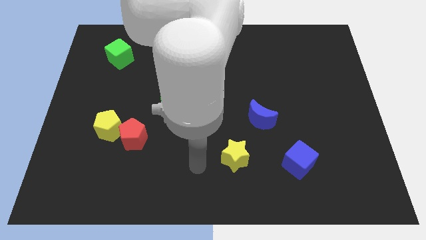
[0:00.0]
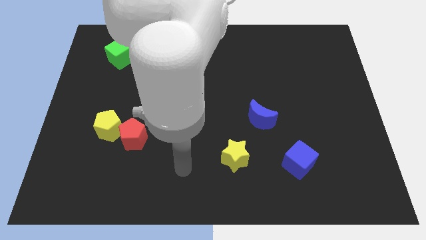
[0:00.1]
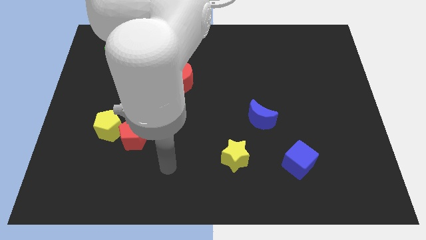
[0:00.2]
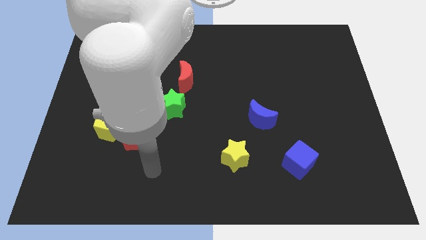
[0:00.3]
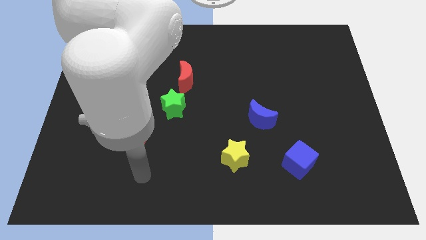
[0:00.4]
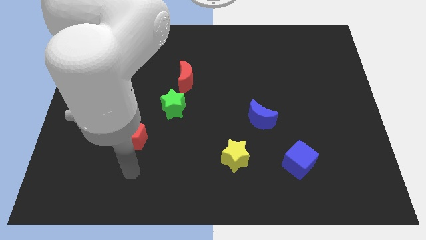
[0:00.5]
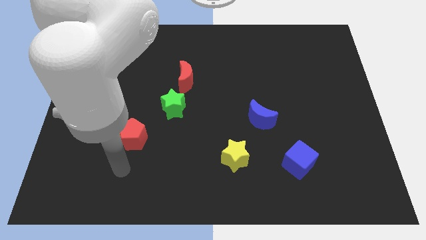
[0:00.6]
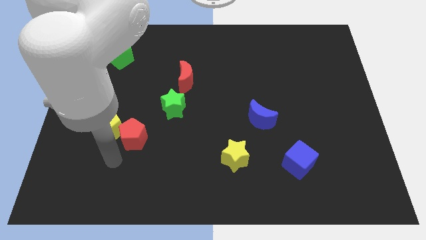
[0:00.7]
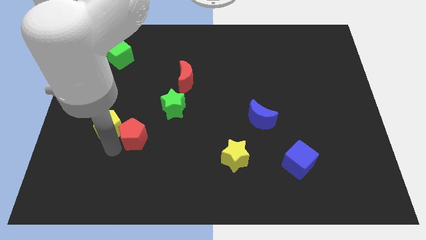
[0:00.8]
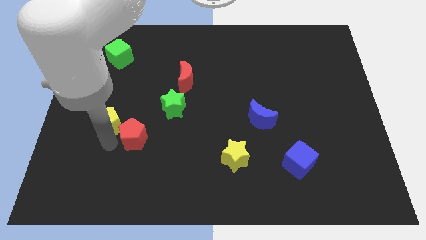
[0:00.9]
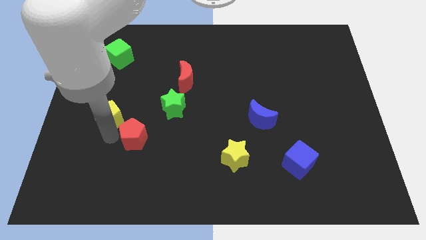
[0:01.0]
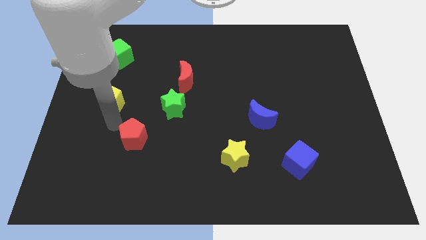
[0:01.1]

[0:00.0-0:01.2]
move the red pentagon away from the yellow pentagon

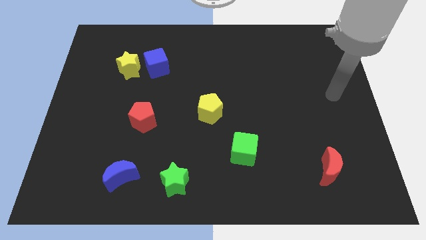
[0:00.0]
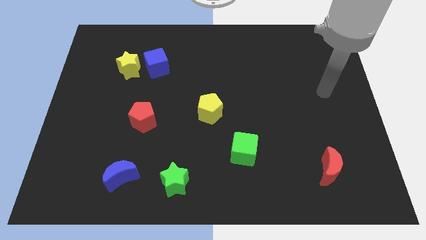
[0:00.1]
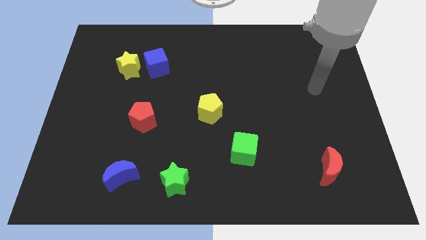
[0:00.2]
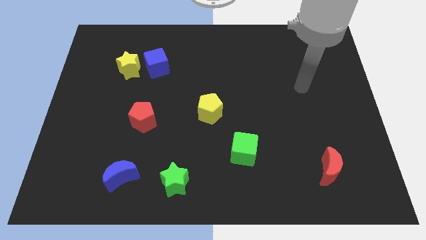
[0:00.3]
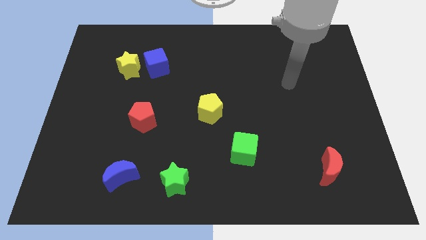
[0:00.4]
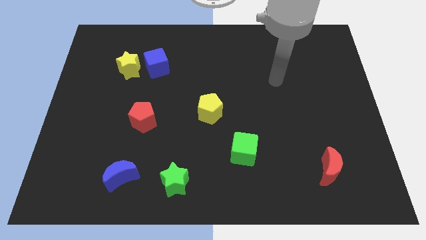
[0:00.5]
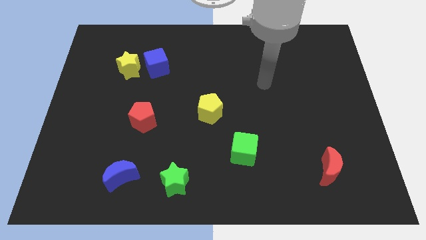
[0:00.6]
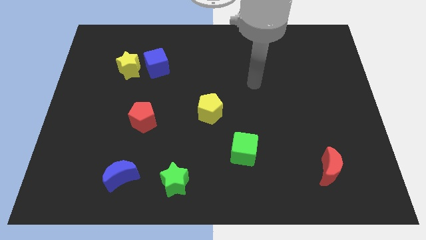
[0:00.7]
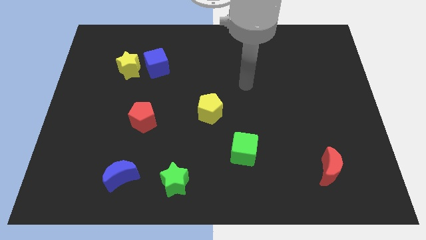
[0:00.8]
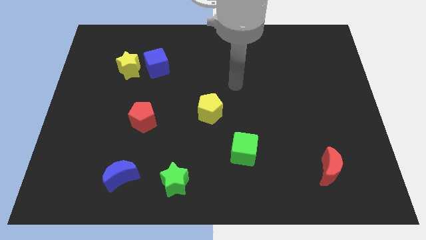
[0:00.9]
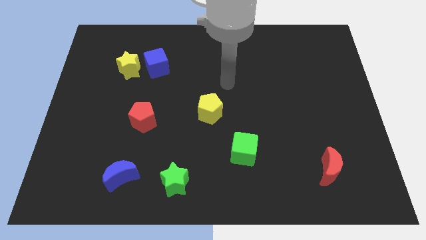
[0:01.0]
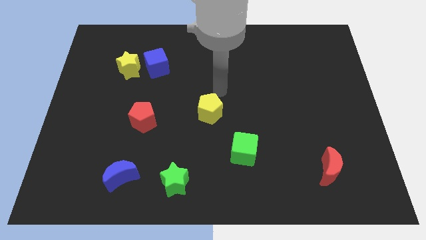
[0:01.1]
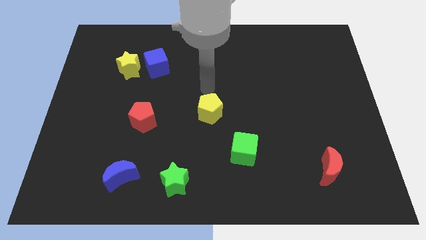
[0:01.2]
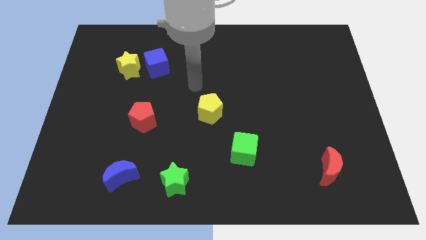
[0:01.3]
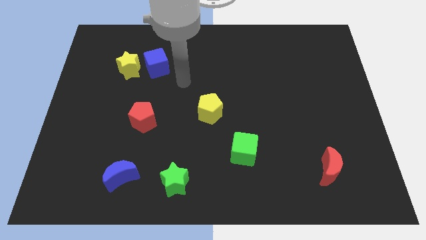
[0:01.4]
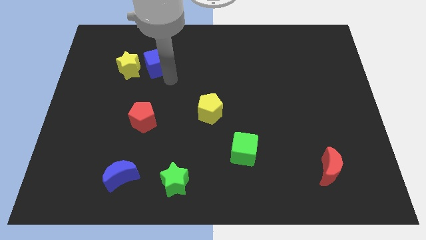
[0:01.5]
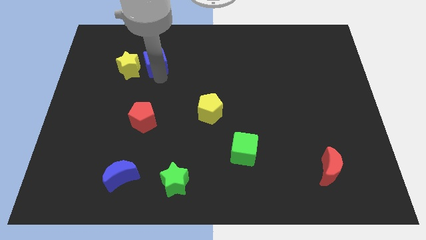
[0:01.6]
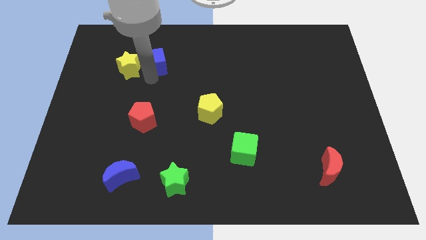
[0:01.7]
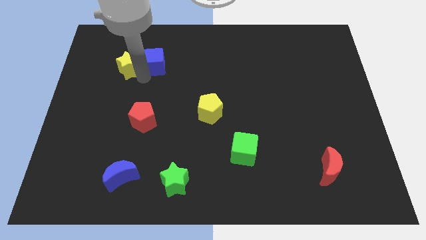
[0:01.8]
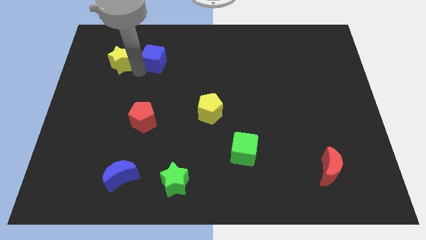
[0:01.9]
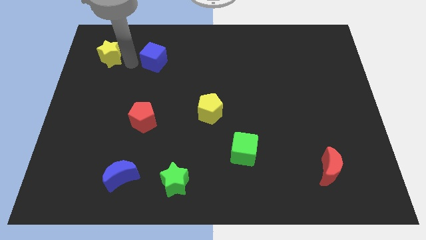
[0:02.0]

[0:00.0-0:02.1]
pull the blue cube apart from the yellow star

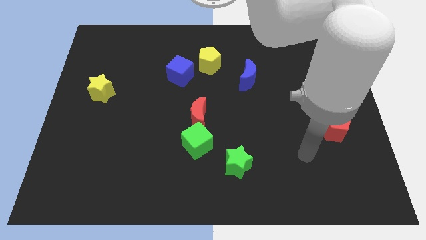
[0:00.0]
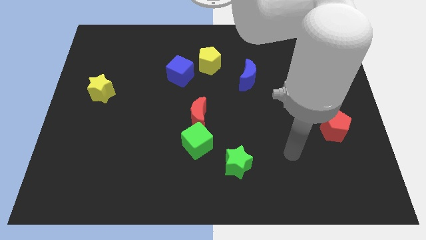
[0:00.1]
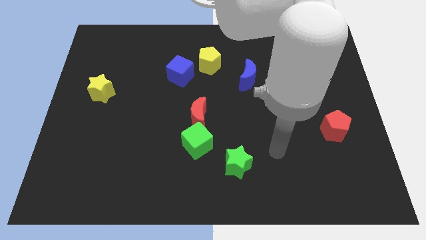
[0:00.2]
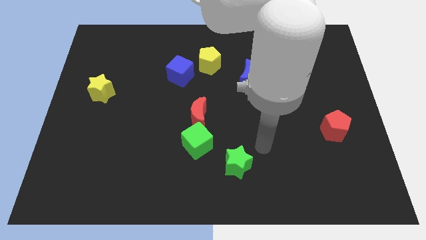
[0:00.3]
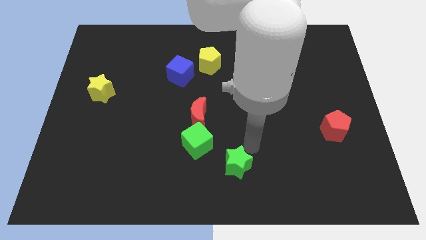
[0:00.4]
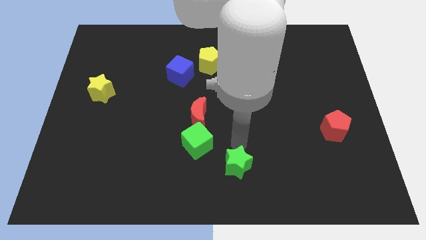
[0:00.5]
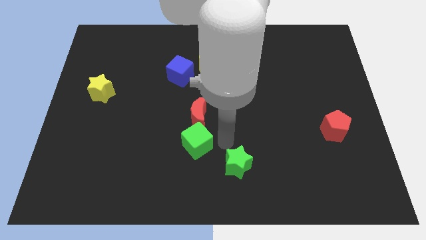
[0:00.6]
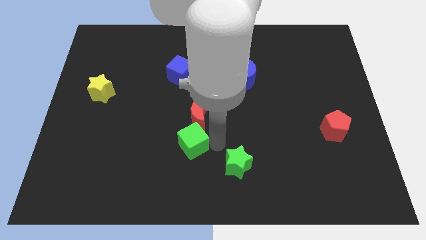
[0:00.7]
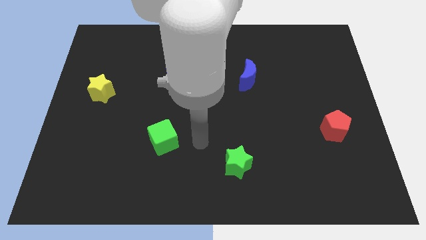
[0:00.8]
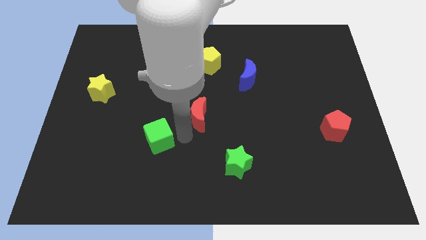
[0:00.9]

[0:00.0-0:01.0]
separate the red moon from the green cube

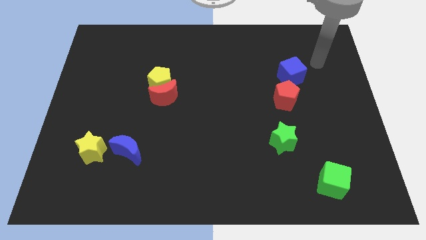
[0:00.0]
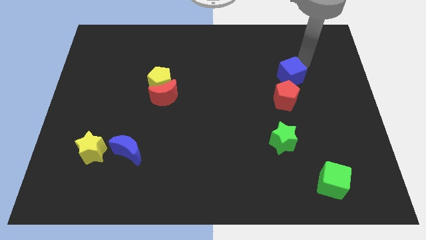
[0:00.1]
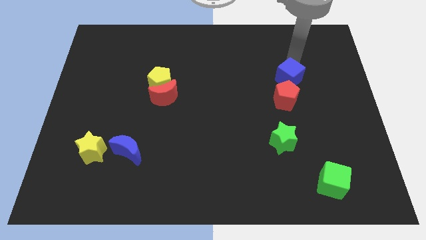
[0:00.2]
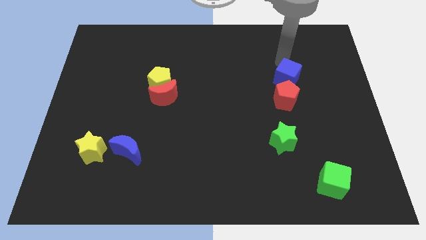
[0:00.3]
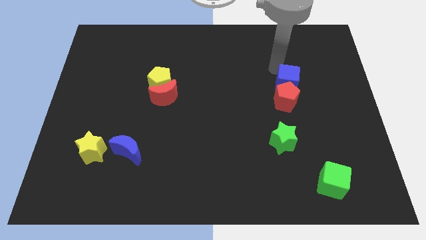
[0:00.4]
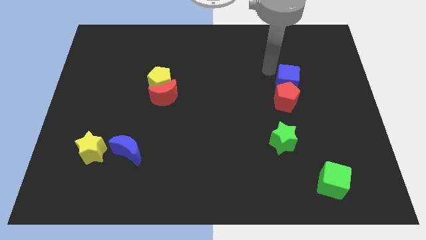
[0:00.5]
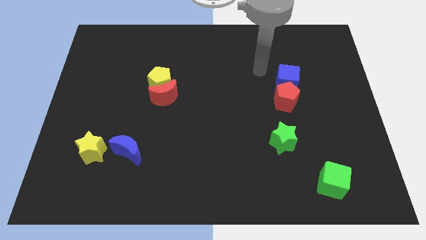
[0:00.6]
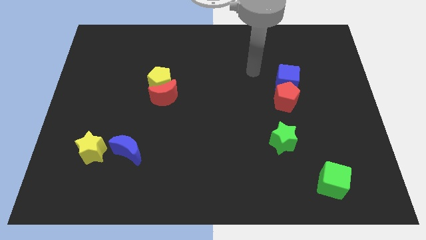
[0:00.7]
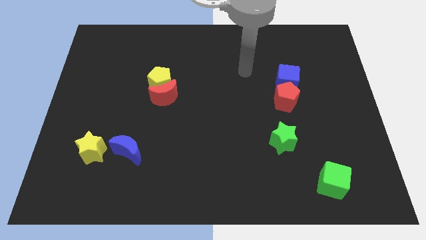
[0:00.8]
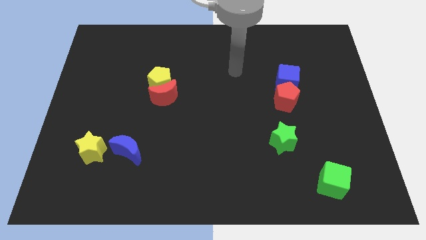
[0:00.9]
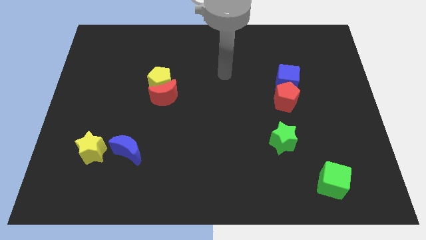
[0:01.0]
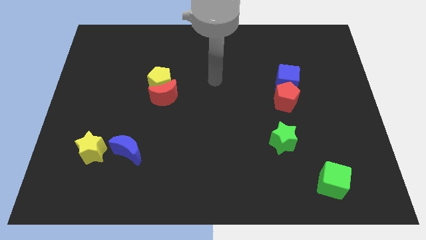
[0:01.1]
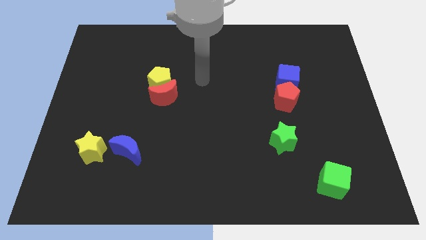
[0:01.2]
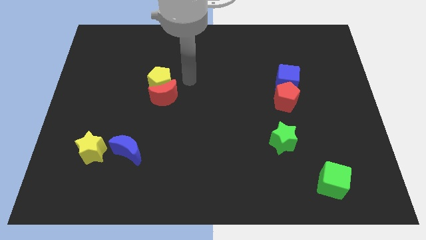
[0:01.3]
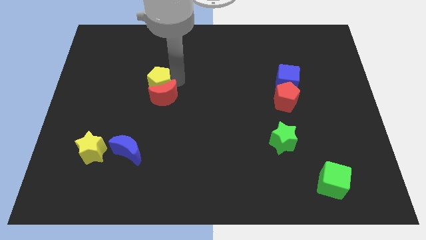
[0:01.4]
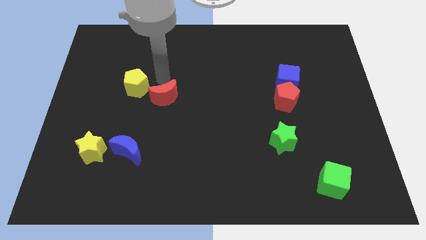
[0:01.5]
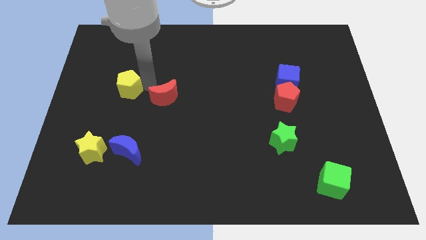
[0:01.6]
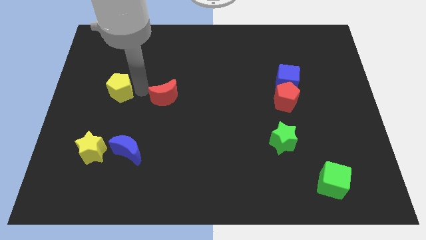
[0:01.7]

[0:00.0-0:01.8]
pull the red moon apart from the yellow pentagon

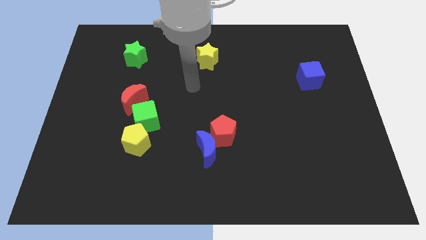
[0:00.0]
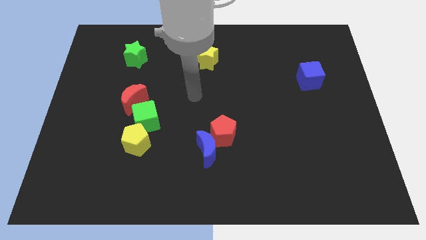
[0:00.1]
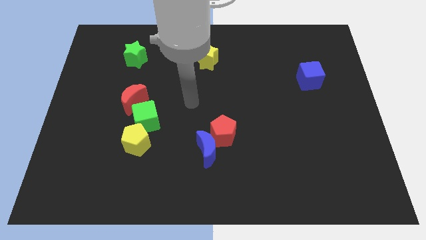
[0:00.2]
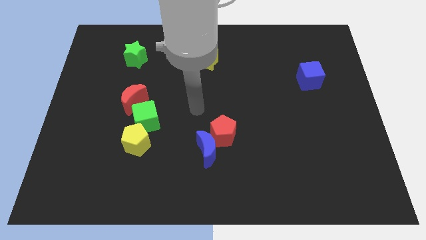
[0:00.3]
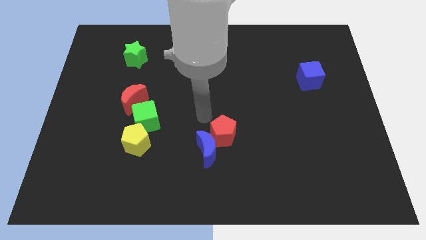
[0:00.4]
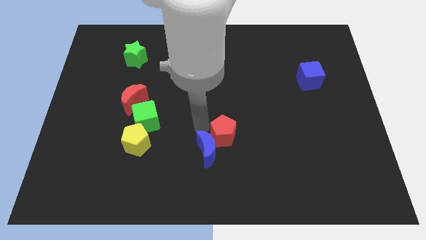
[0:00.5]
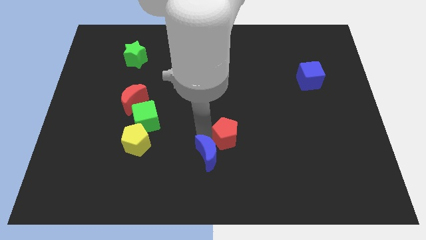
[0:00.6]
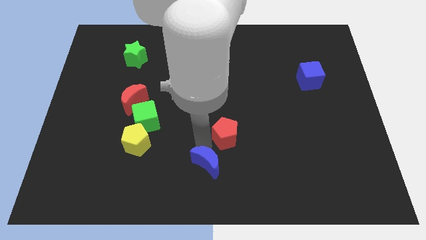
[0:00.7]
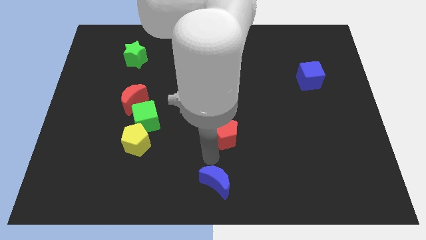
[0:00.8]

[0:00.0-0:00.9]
separate the red pentagon from the blue moon

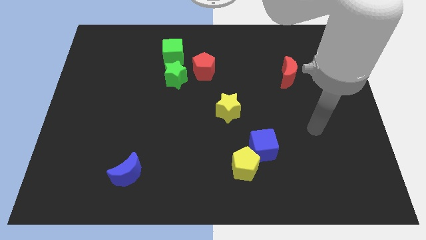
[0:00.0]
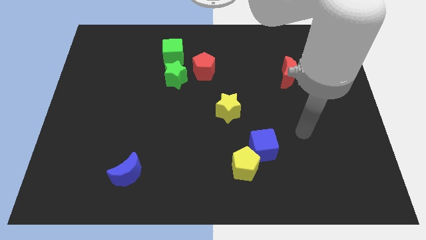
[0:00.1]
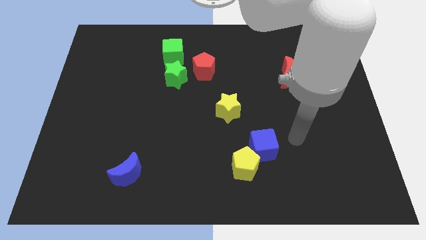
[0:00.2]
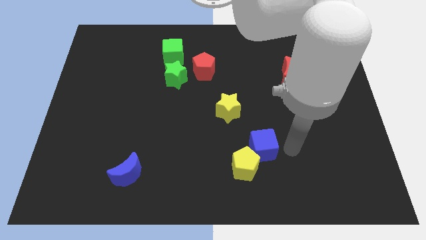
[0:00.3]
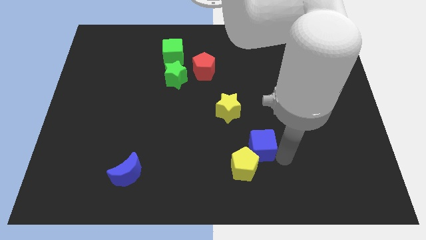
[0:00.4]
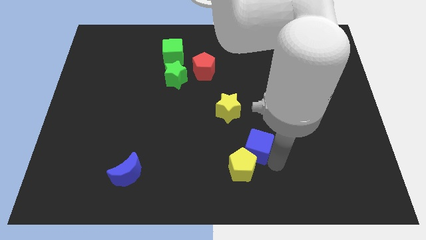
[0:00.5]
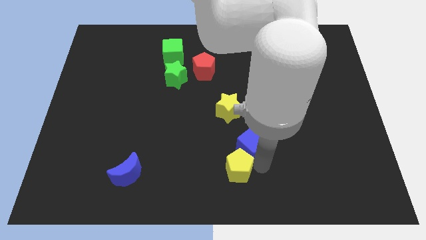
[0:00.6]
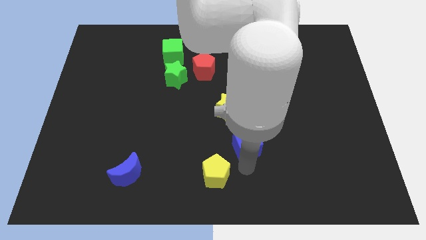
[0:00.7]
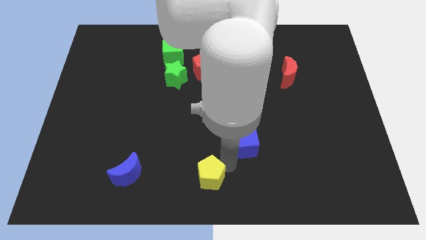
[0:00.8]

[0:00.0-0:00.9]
separate the blue cube from the yellow pentagon

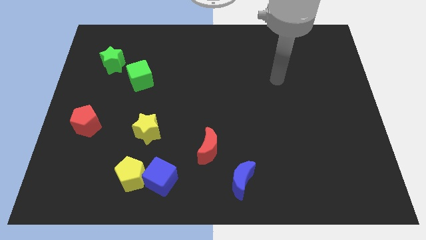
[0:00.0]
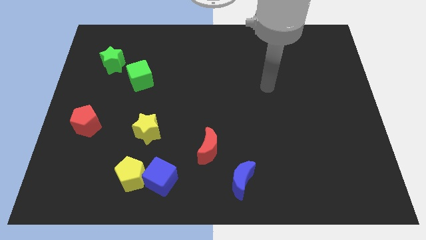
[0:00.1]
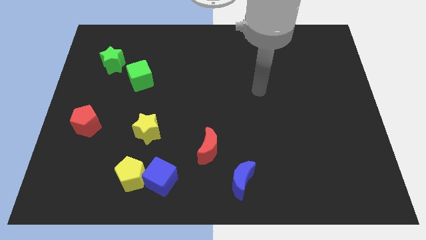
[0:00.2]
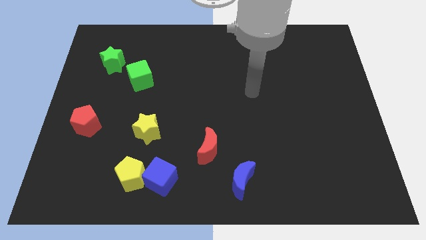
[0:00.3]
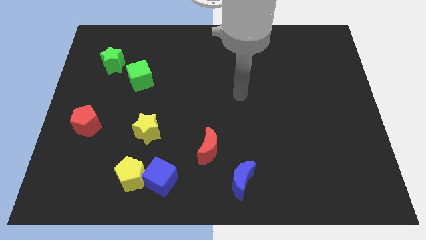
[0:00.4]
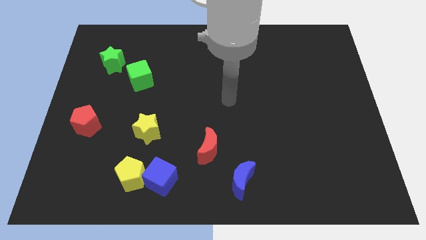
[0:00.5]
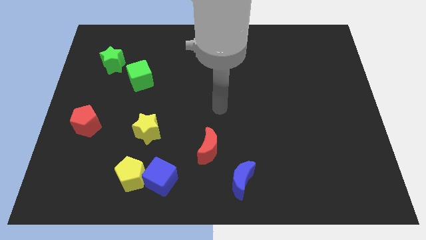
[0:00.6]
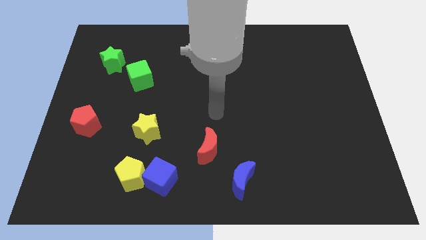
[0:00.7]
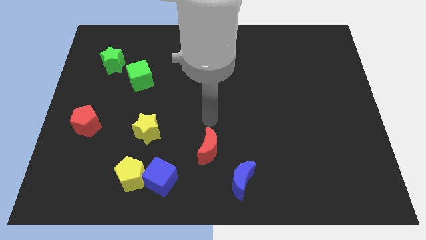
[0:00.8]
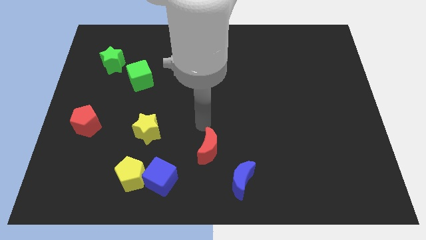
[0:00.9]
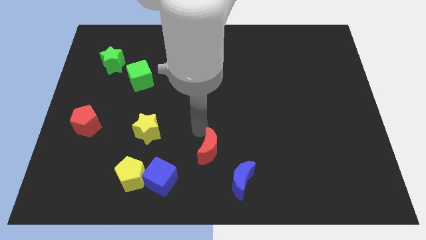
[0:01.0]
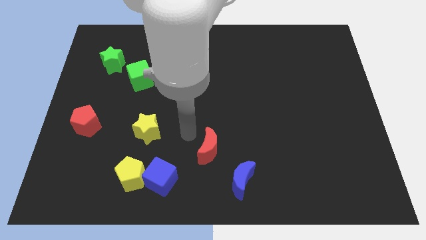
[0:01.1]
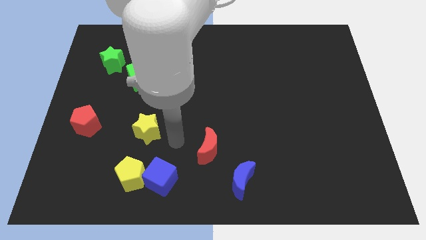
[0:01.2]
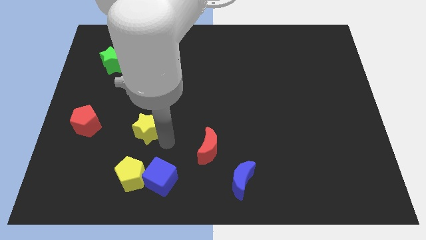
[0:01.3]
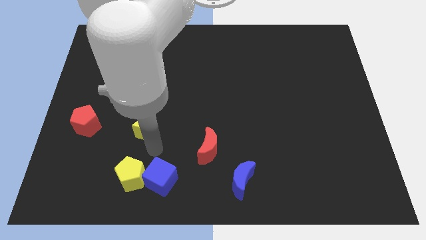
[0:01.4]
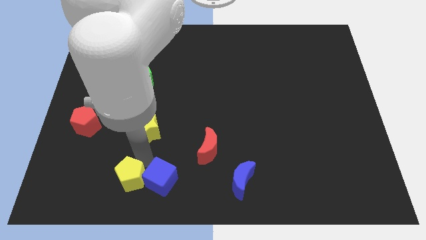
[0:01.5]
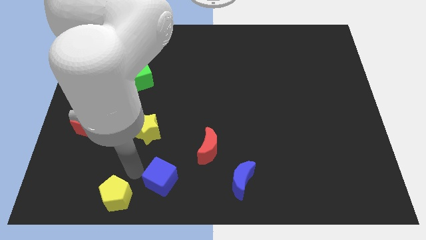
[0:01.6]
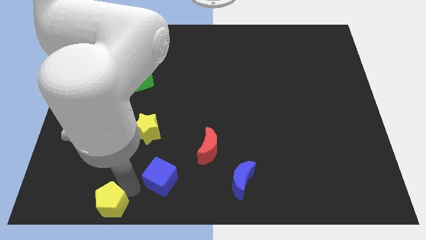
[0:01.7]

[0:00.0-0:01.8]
pull the blue cube apart from the yellow pentagon
